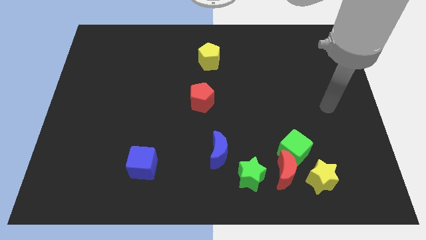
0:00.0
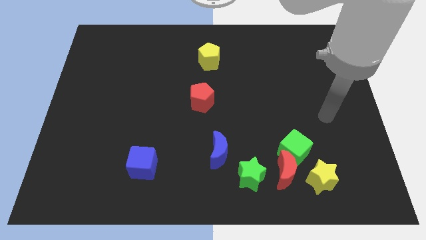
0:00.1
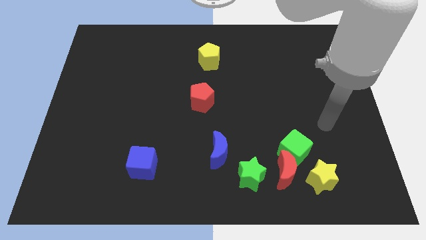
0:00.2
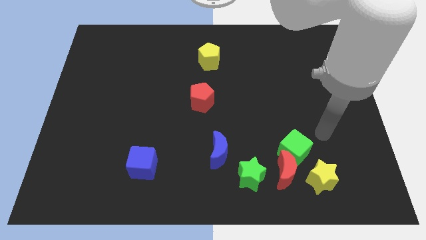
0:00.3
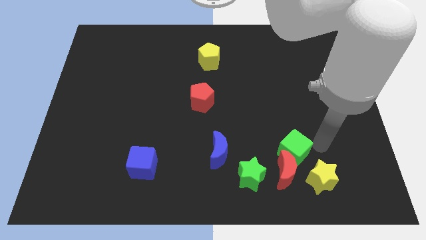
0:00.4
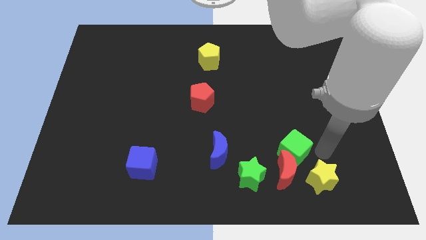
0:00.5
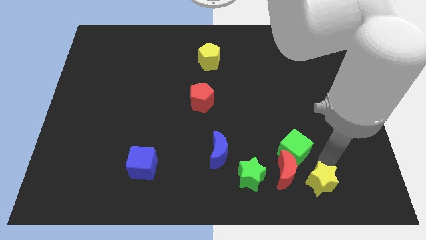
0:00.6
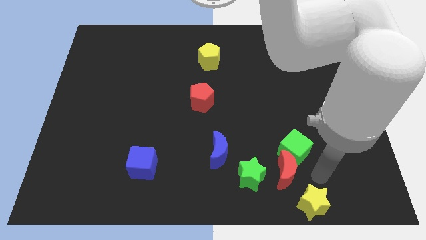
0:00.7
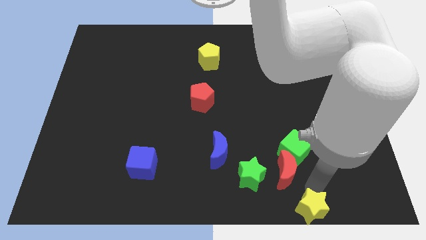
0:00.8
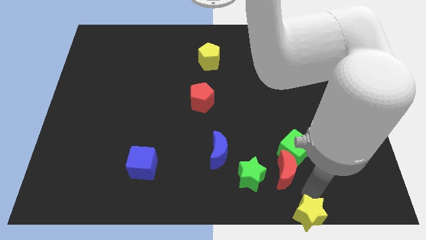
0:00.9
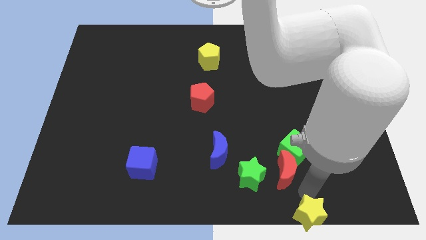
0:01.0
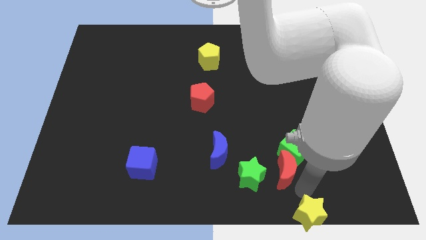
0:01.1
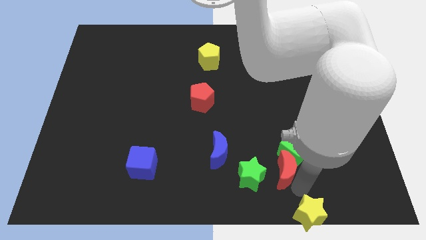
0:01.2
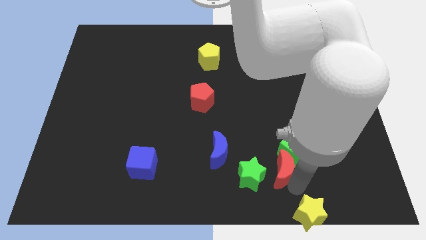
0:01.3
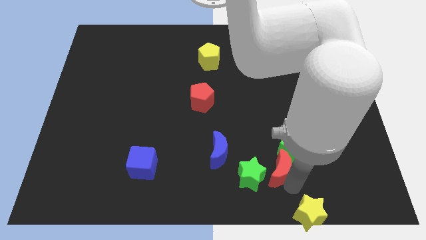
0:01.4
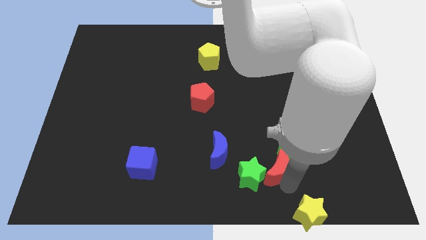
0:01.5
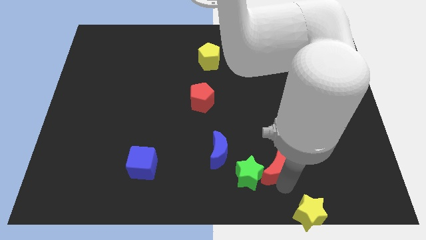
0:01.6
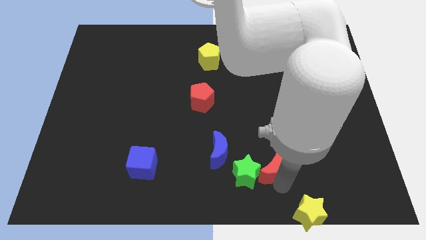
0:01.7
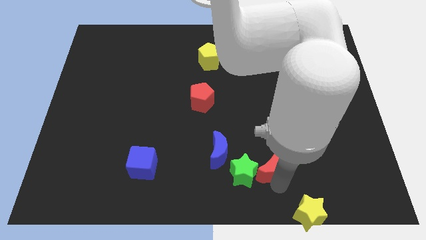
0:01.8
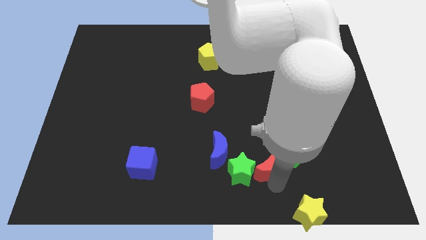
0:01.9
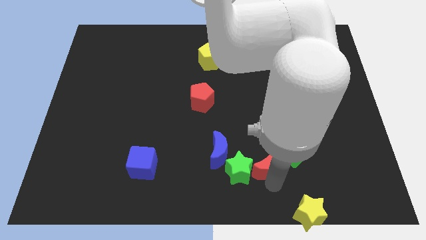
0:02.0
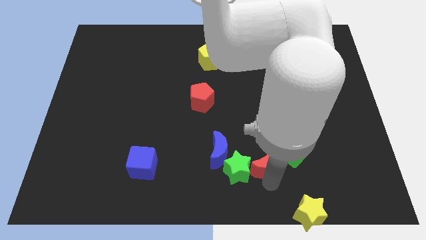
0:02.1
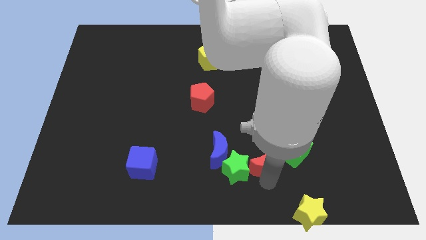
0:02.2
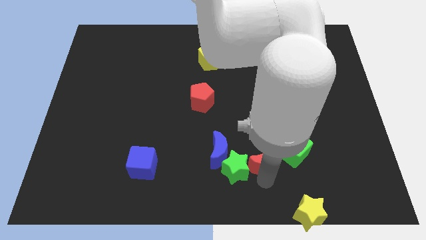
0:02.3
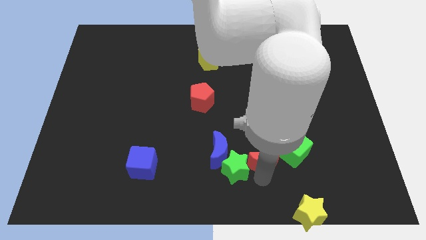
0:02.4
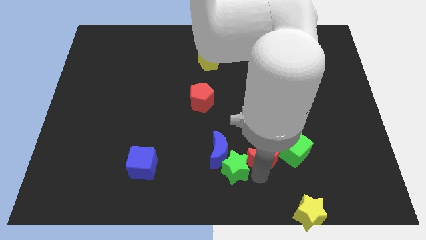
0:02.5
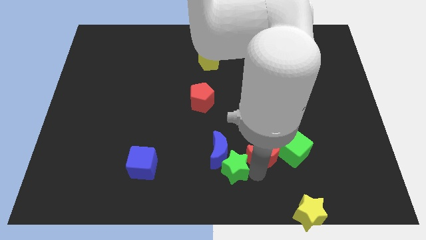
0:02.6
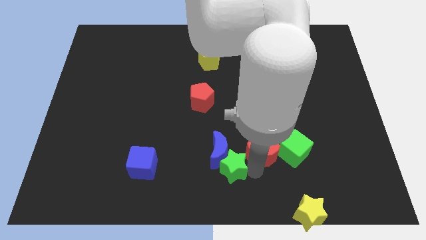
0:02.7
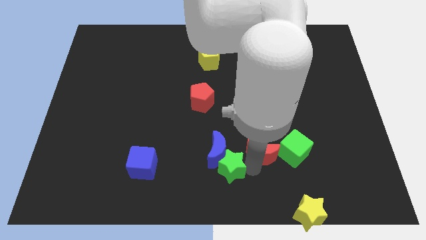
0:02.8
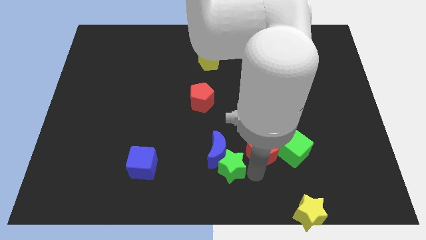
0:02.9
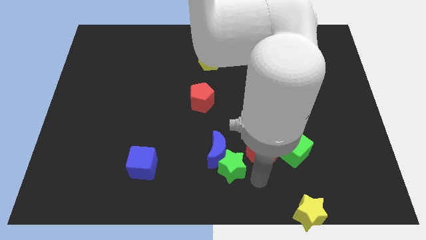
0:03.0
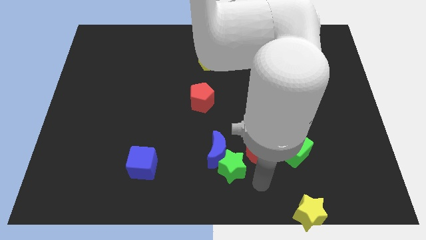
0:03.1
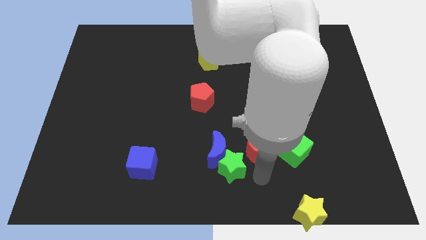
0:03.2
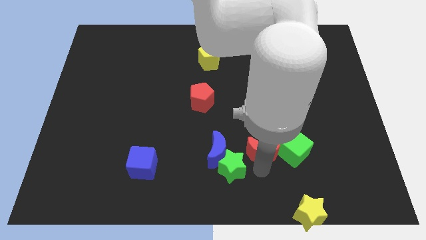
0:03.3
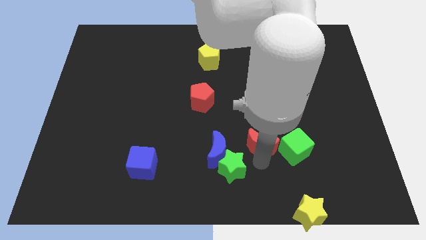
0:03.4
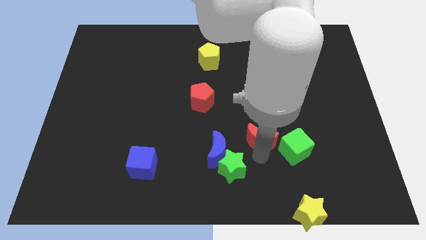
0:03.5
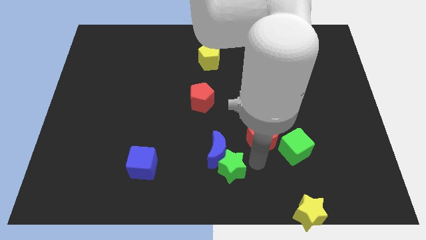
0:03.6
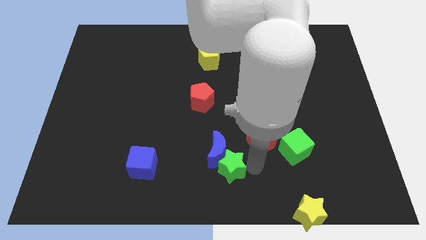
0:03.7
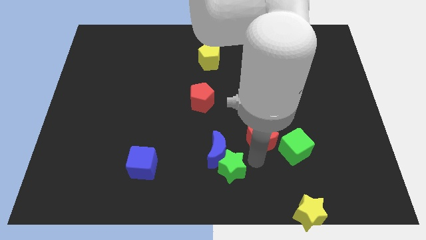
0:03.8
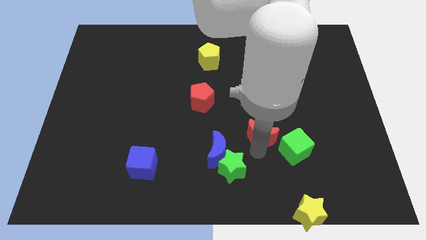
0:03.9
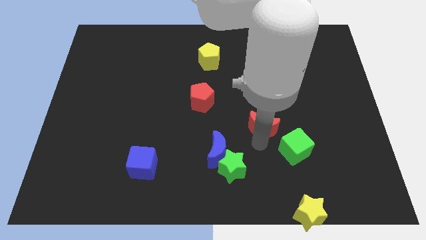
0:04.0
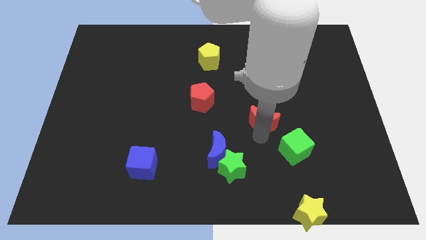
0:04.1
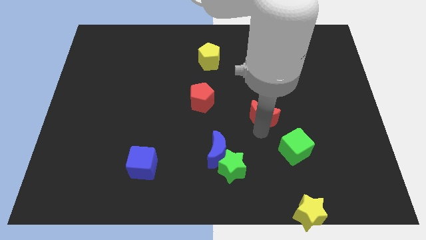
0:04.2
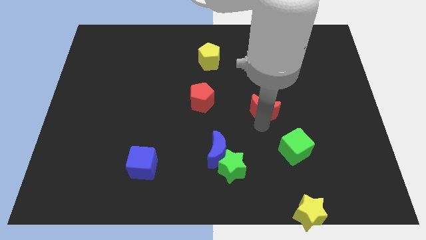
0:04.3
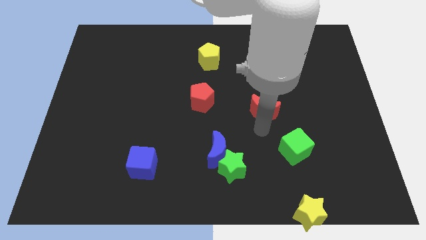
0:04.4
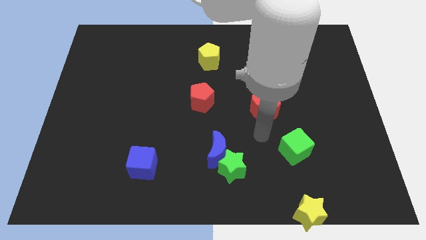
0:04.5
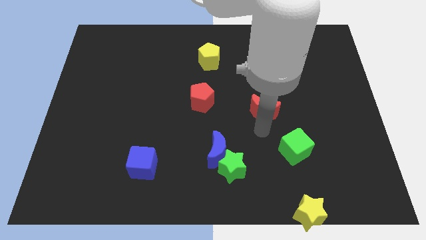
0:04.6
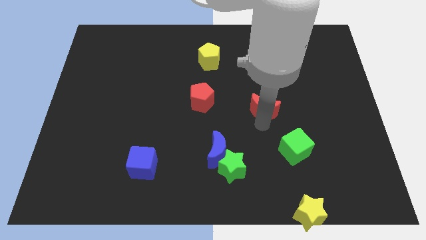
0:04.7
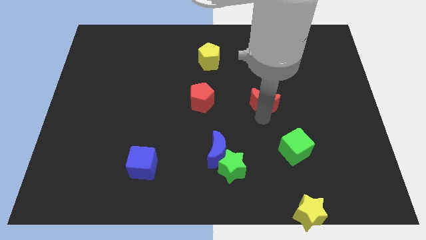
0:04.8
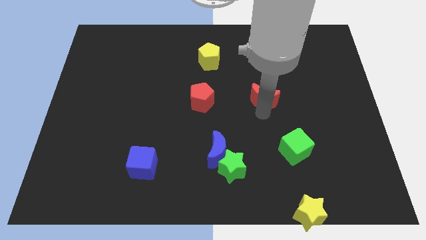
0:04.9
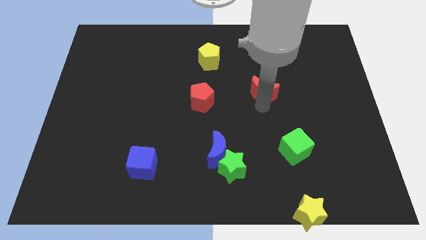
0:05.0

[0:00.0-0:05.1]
move the red moon upwards

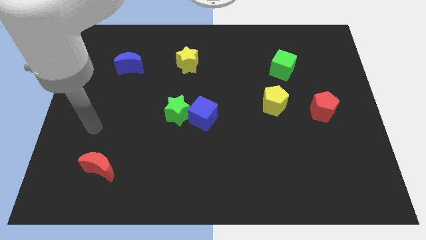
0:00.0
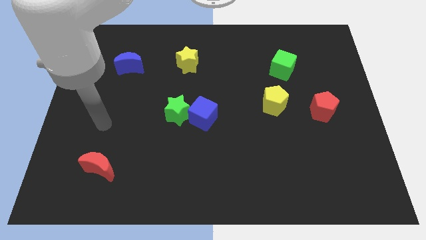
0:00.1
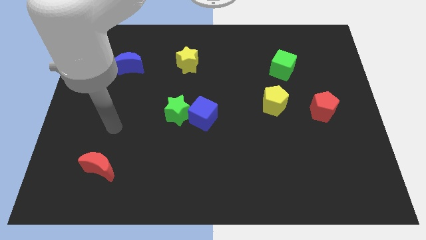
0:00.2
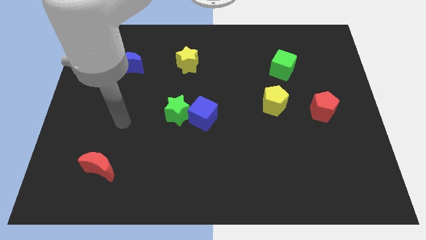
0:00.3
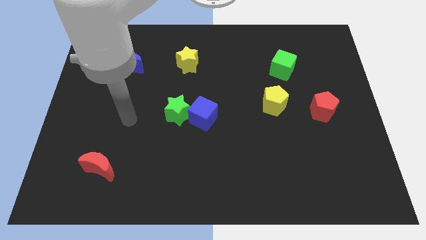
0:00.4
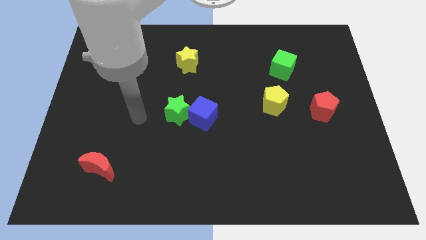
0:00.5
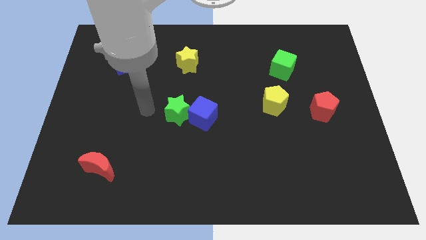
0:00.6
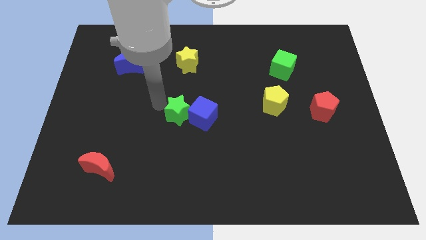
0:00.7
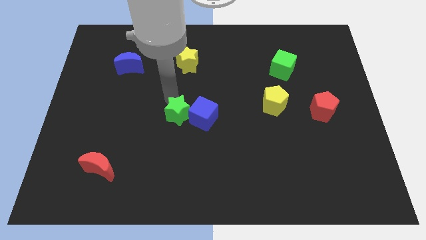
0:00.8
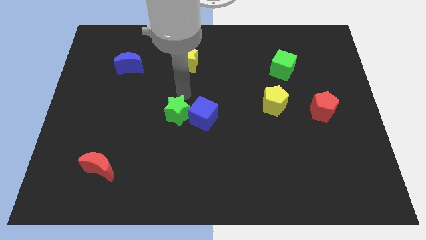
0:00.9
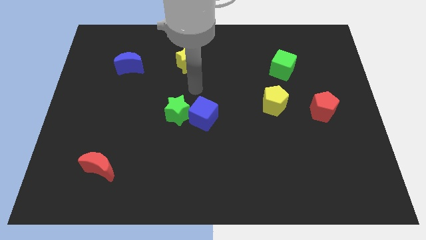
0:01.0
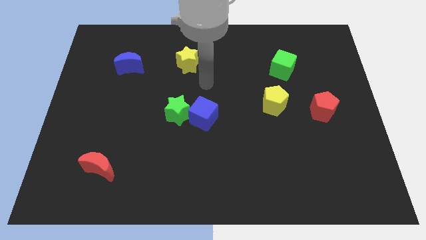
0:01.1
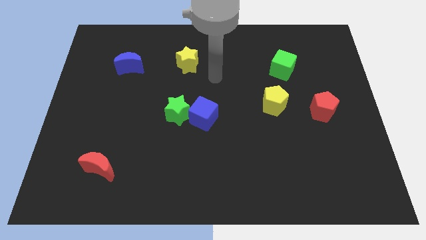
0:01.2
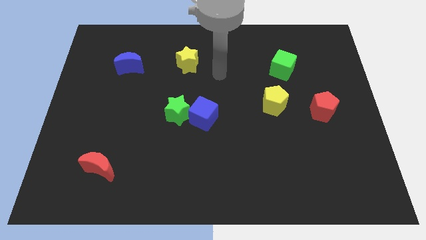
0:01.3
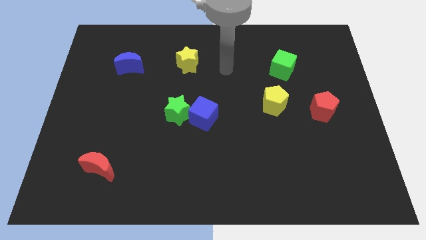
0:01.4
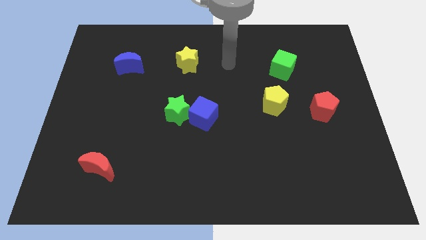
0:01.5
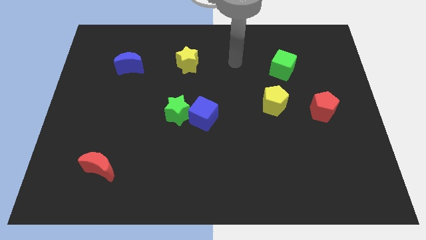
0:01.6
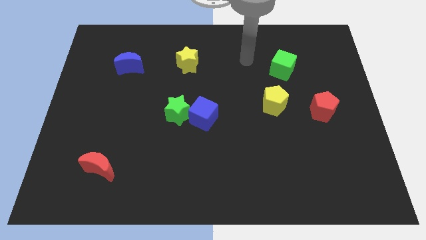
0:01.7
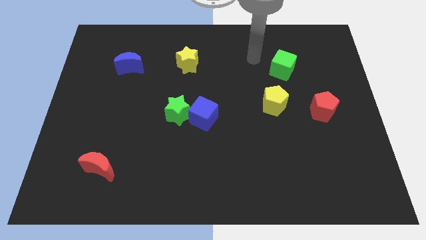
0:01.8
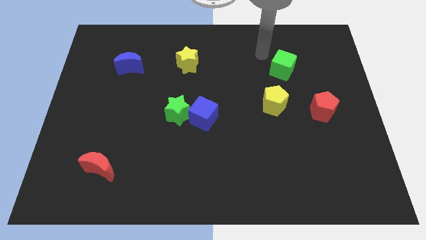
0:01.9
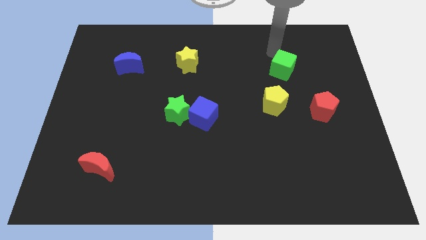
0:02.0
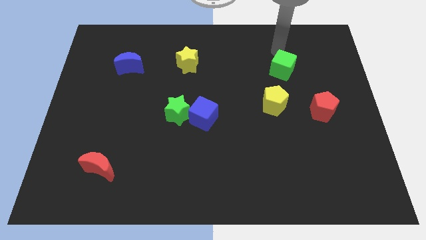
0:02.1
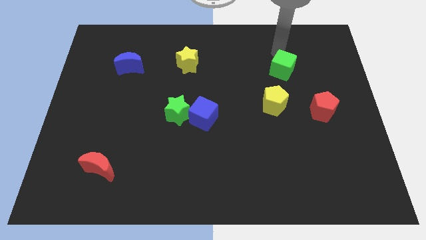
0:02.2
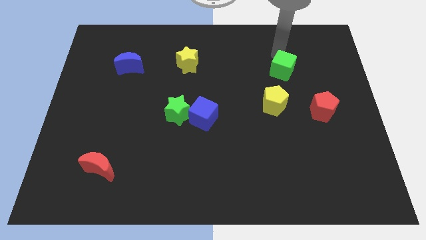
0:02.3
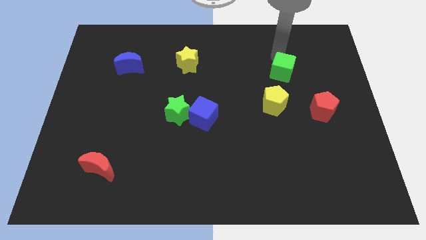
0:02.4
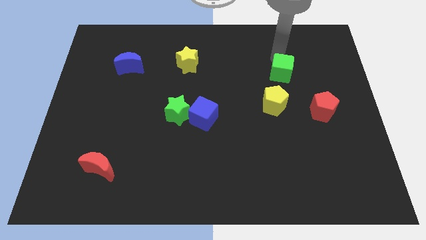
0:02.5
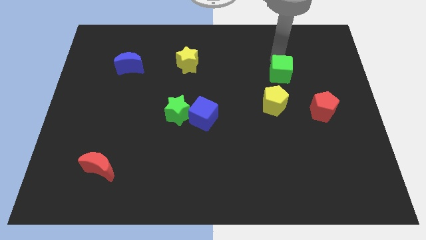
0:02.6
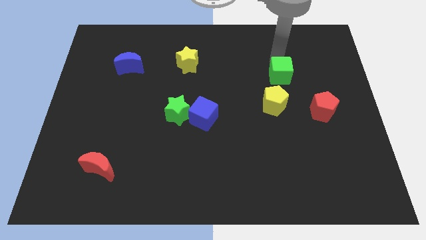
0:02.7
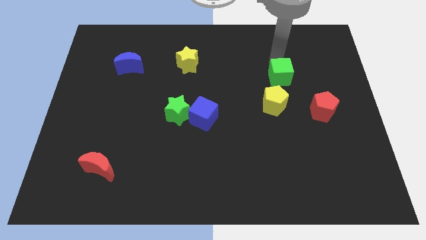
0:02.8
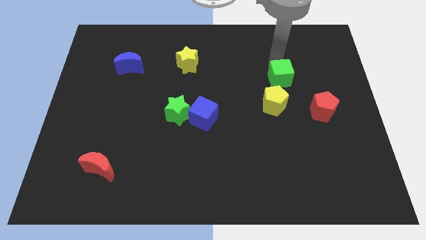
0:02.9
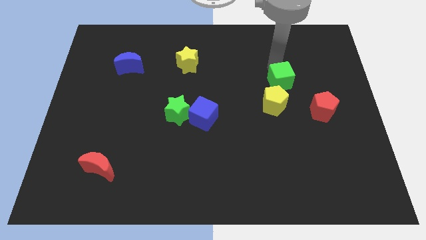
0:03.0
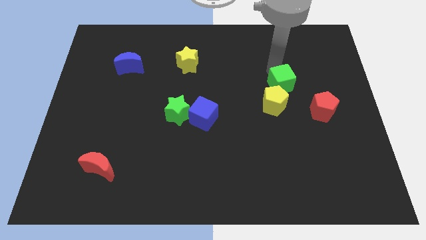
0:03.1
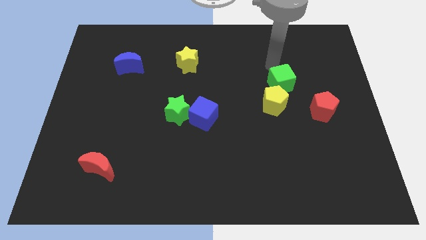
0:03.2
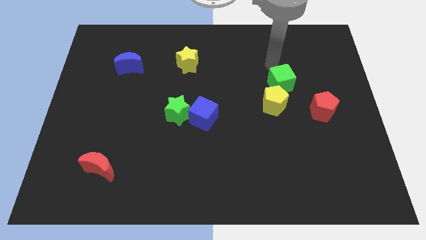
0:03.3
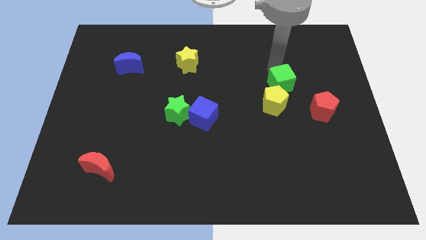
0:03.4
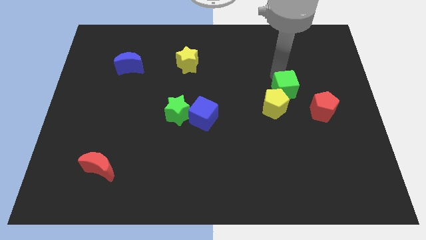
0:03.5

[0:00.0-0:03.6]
move the green cube a little downwards
